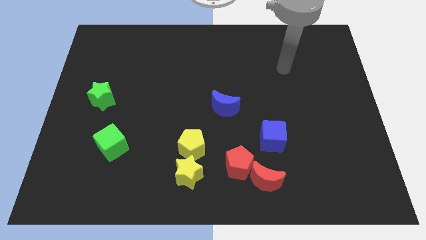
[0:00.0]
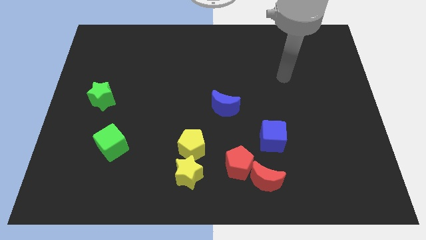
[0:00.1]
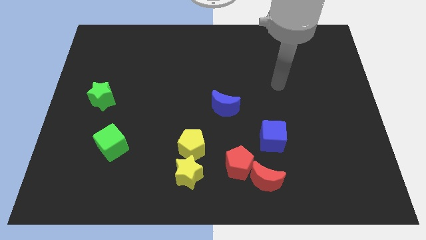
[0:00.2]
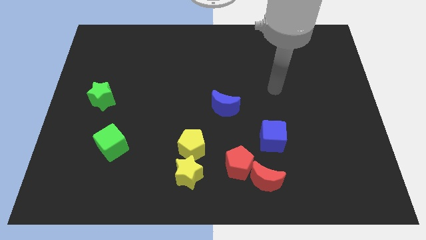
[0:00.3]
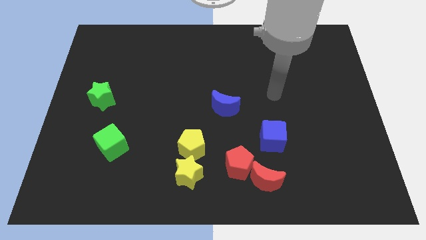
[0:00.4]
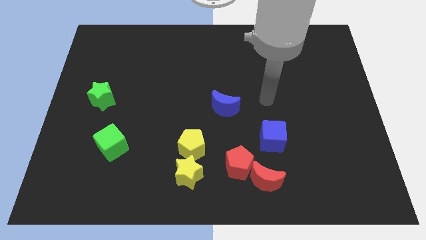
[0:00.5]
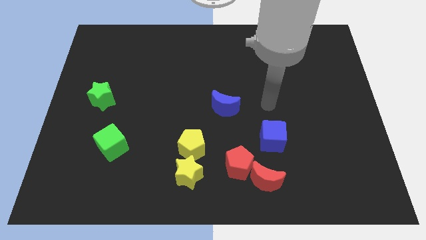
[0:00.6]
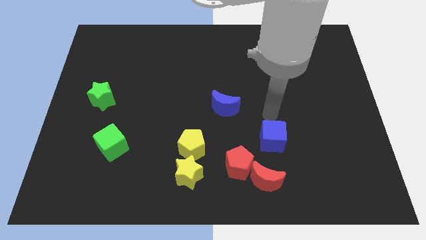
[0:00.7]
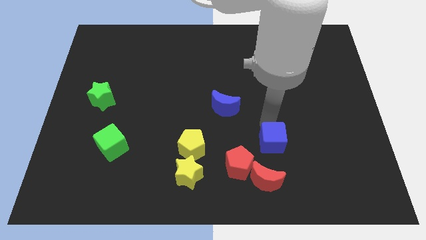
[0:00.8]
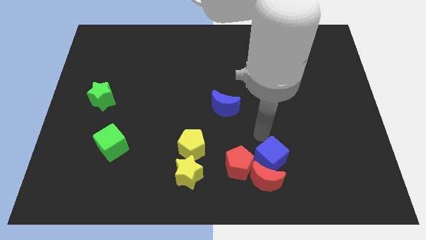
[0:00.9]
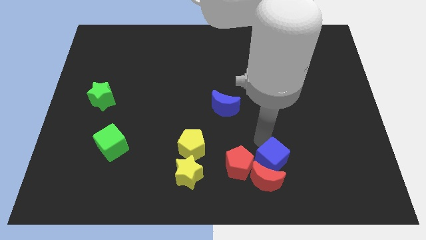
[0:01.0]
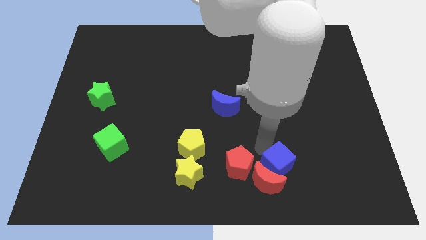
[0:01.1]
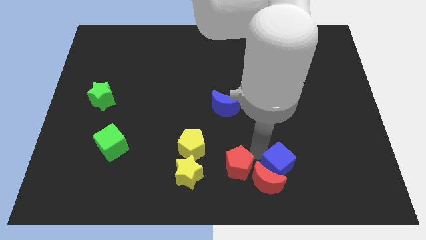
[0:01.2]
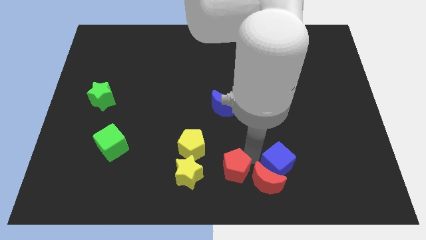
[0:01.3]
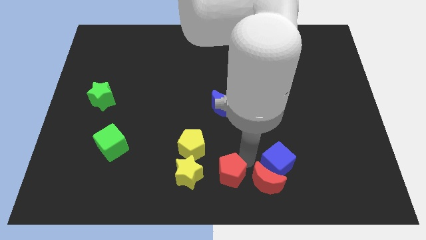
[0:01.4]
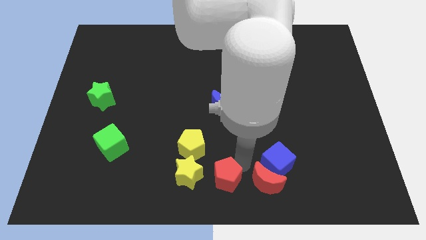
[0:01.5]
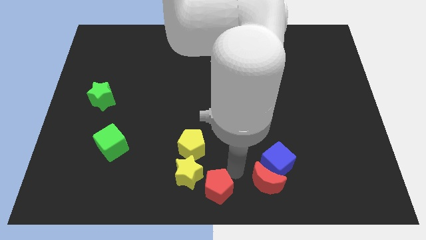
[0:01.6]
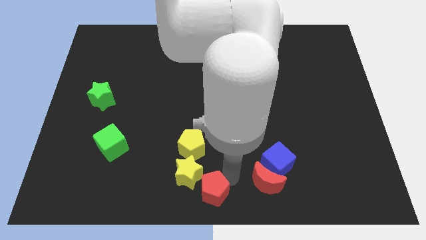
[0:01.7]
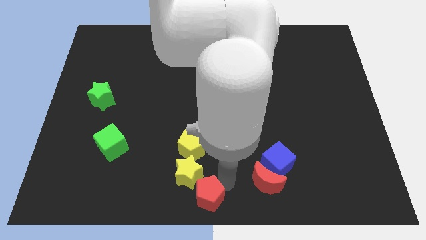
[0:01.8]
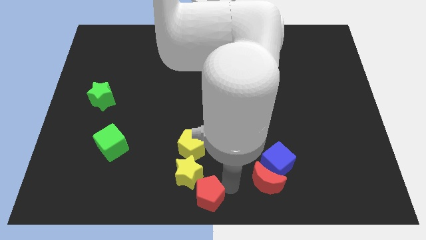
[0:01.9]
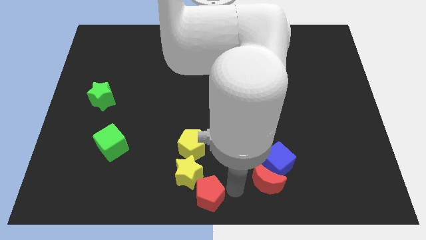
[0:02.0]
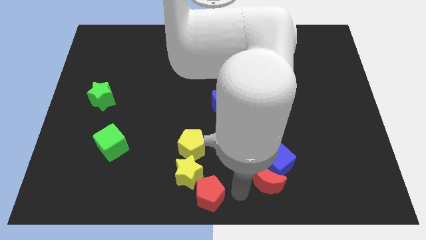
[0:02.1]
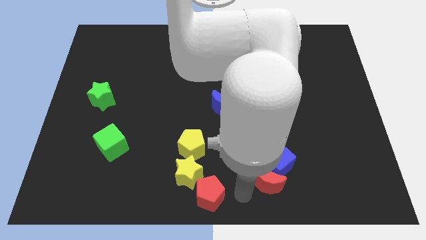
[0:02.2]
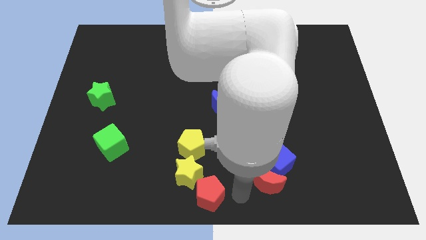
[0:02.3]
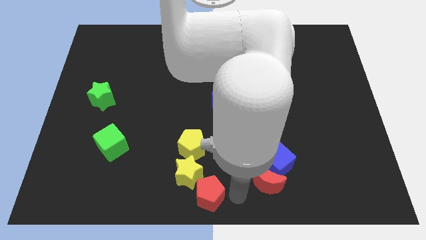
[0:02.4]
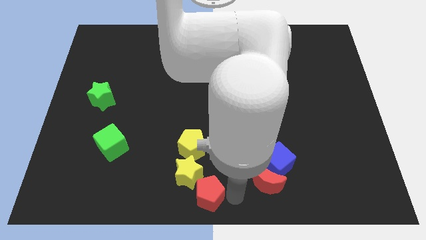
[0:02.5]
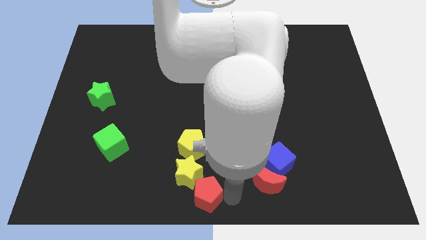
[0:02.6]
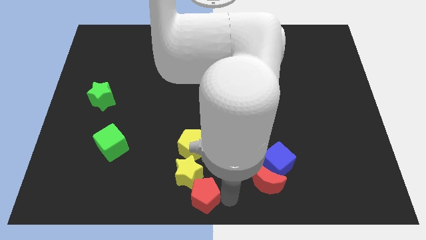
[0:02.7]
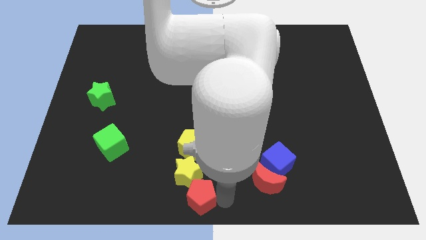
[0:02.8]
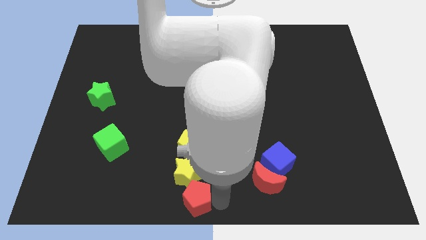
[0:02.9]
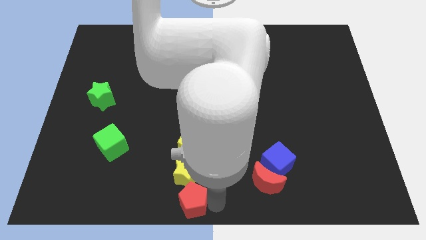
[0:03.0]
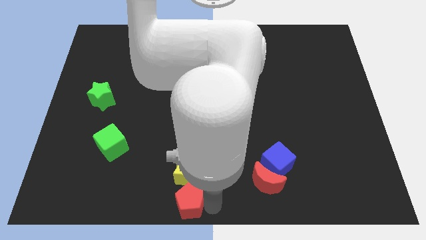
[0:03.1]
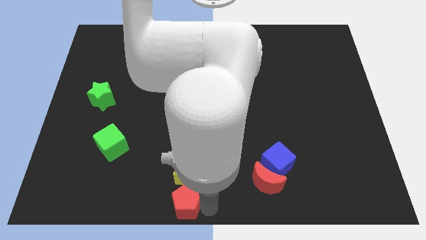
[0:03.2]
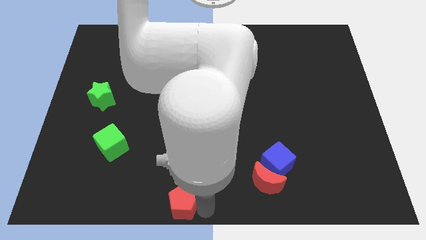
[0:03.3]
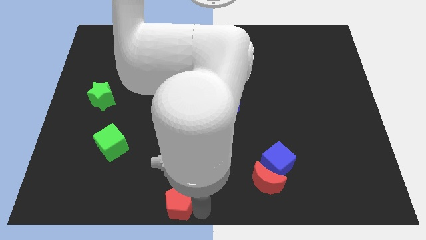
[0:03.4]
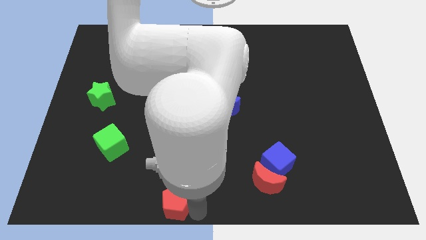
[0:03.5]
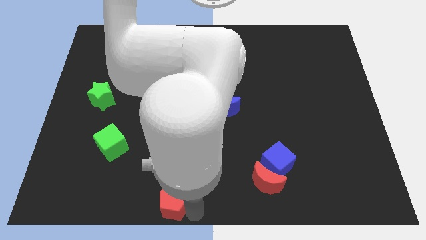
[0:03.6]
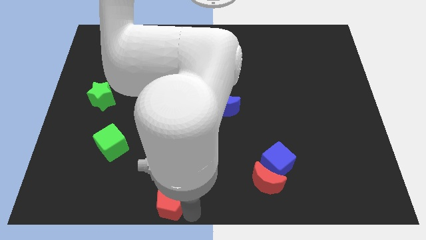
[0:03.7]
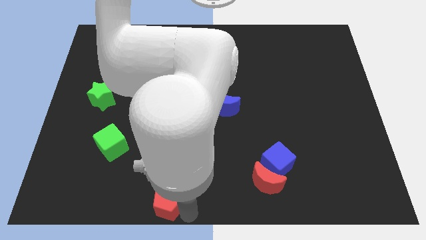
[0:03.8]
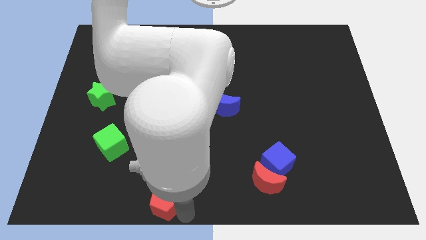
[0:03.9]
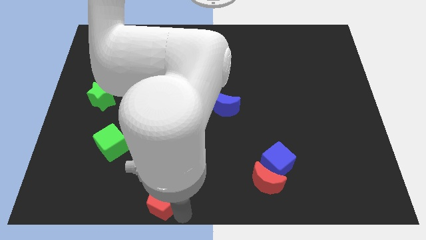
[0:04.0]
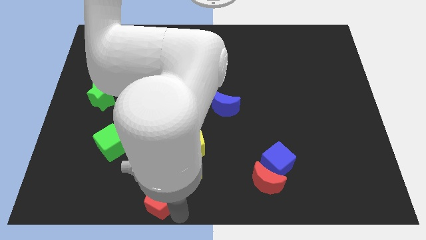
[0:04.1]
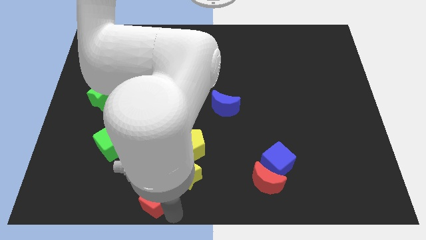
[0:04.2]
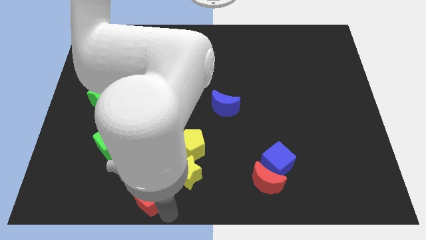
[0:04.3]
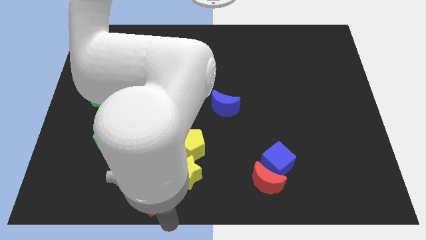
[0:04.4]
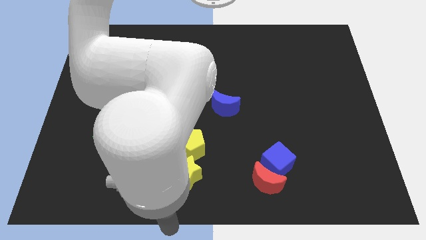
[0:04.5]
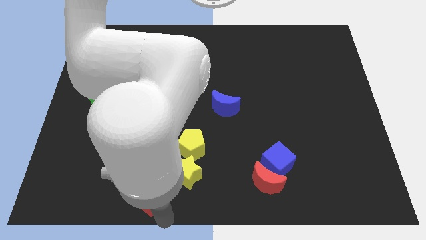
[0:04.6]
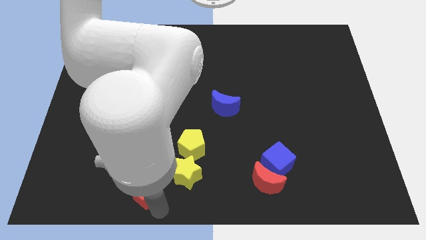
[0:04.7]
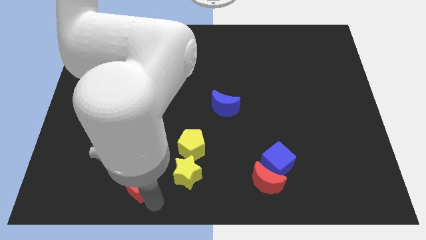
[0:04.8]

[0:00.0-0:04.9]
push the red pentagon to the bottom right of the green cube

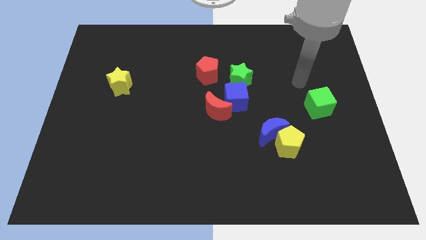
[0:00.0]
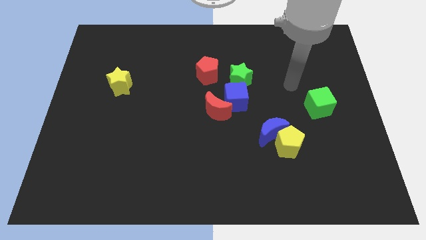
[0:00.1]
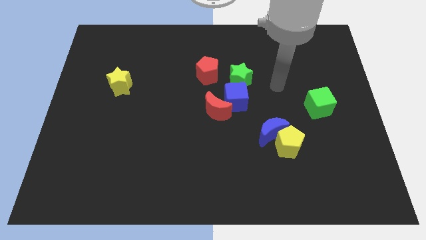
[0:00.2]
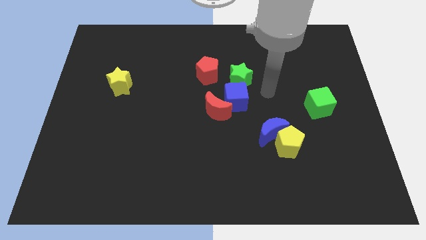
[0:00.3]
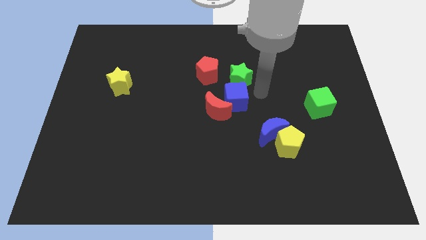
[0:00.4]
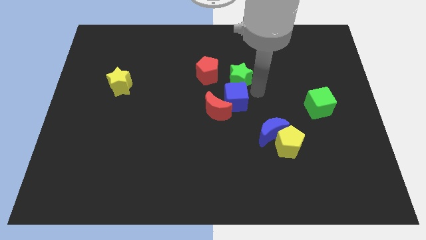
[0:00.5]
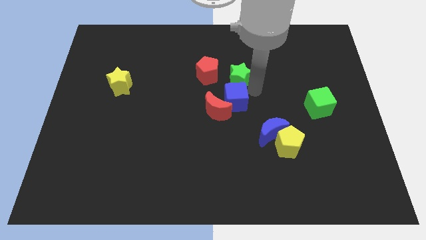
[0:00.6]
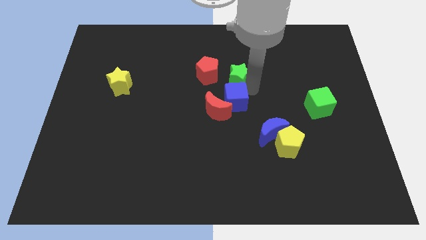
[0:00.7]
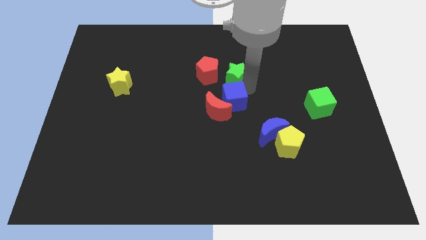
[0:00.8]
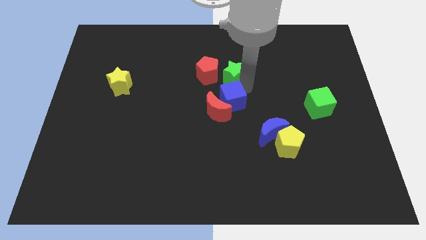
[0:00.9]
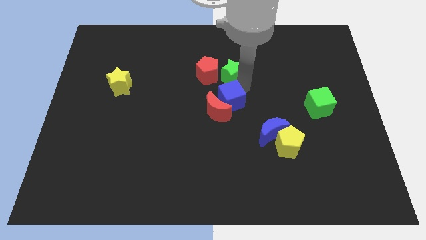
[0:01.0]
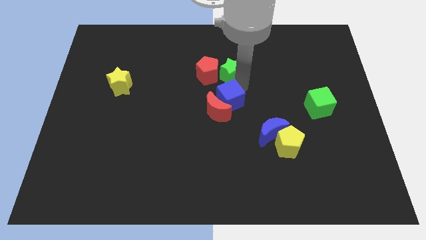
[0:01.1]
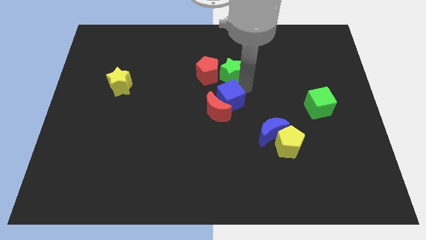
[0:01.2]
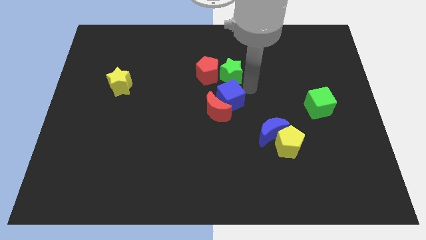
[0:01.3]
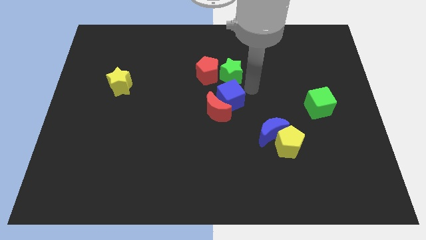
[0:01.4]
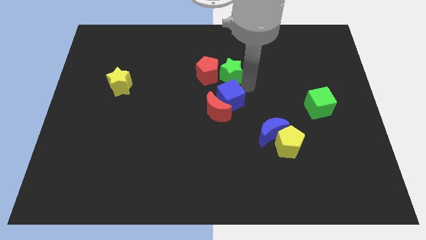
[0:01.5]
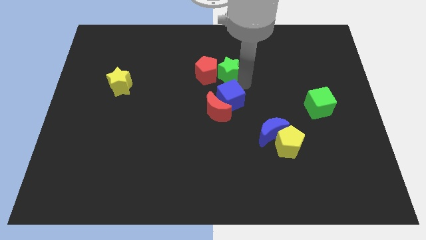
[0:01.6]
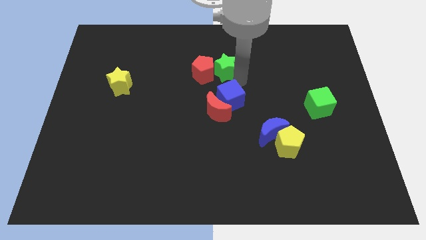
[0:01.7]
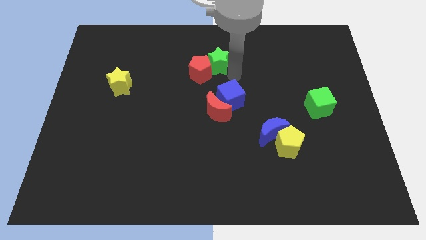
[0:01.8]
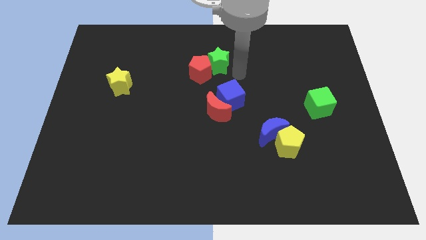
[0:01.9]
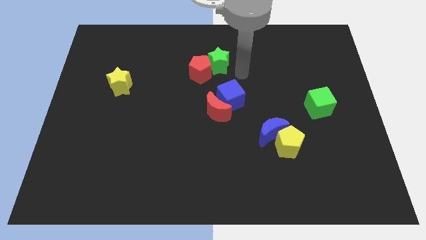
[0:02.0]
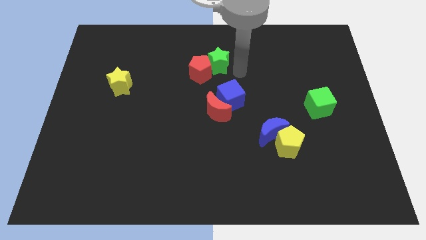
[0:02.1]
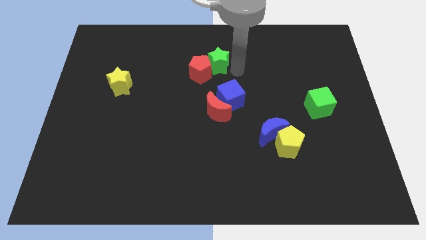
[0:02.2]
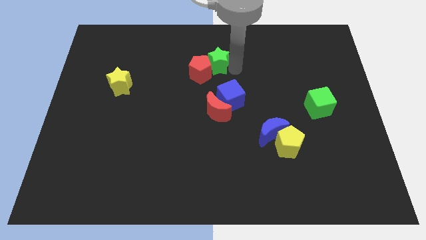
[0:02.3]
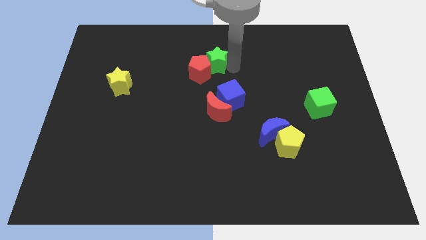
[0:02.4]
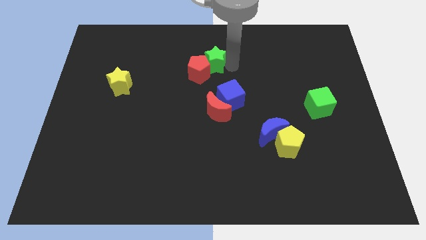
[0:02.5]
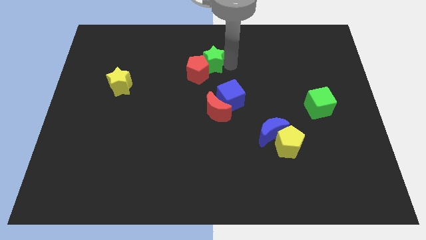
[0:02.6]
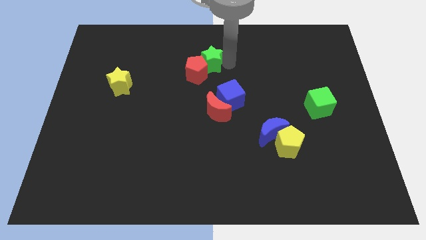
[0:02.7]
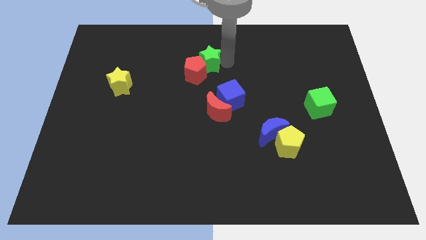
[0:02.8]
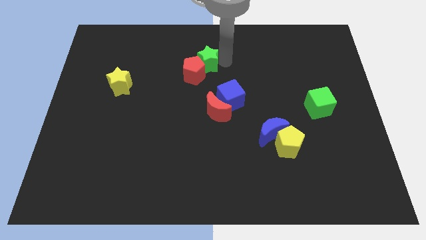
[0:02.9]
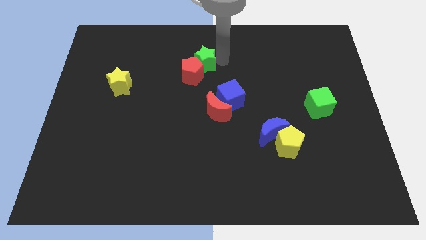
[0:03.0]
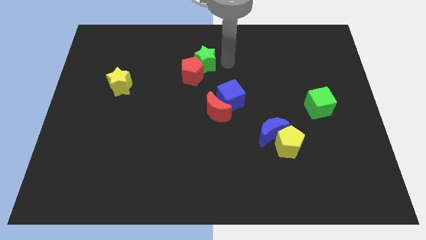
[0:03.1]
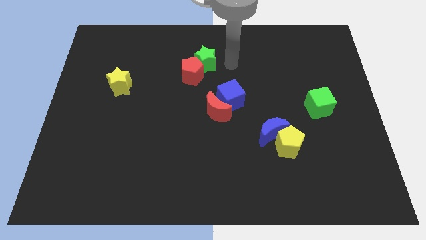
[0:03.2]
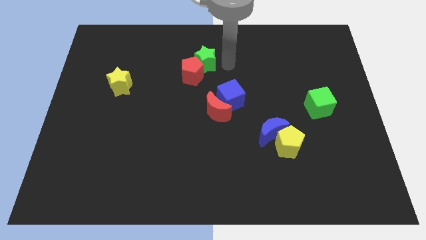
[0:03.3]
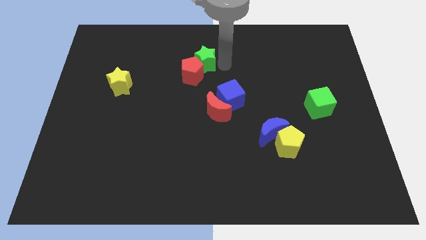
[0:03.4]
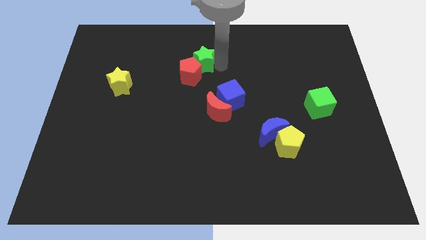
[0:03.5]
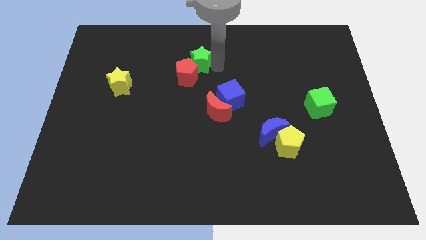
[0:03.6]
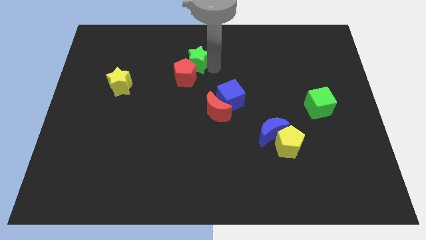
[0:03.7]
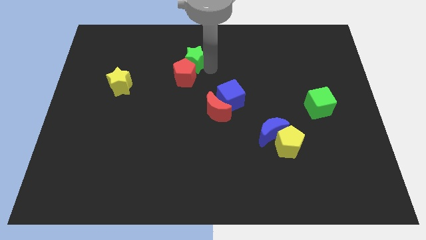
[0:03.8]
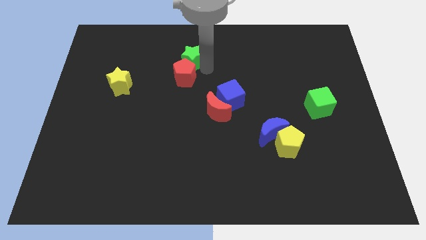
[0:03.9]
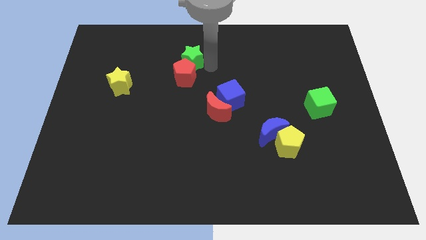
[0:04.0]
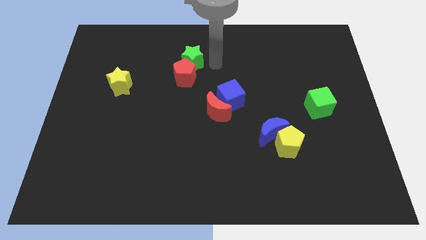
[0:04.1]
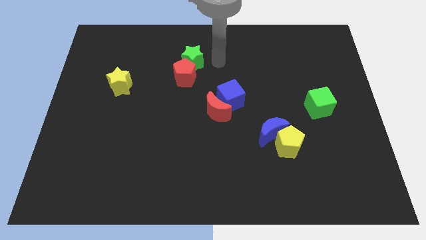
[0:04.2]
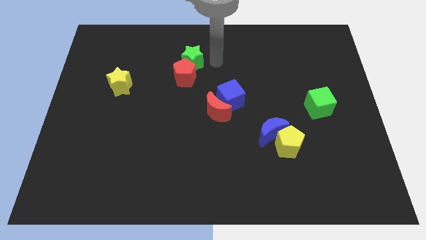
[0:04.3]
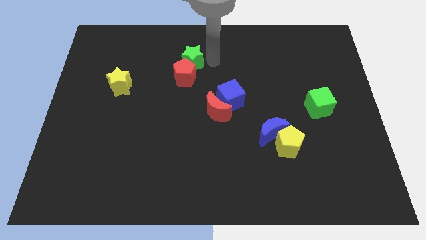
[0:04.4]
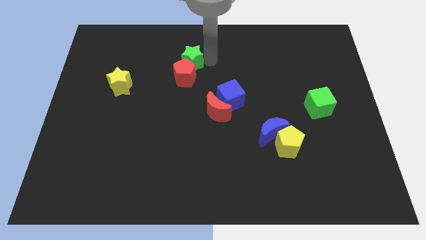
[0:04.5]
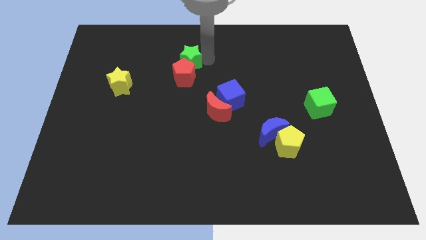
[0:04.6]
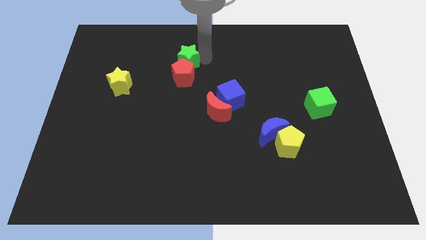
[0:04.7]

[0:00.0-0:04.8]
put the green star to the top left of the red pentagon
